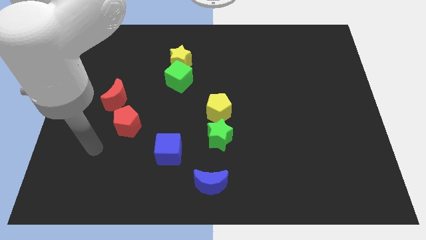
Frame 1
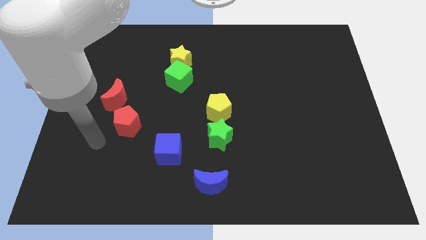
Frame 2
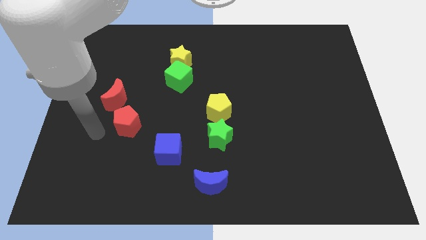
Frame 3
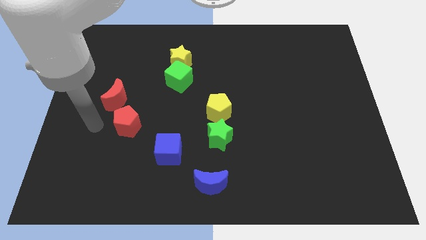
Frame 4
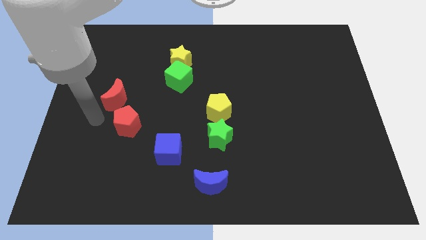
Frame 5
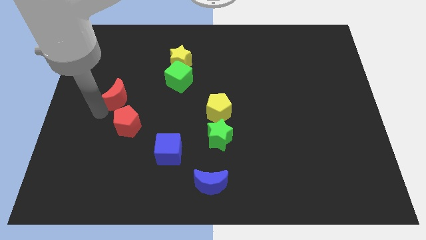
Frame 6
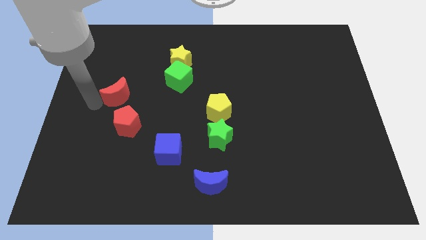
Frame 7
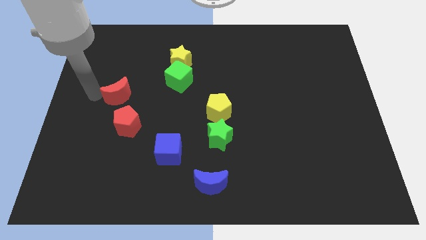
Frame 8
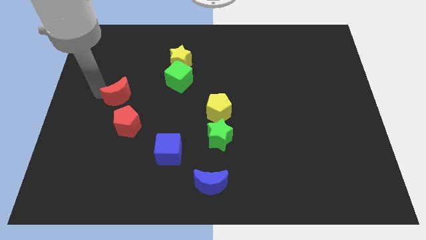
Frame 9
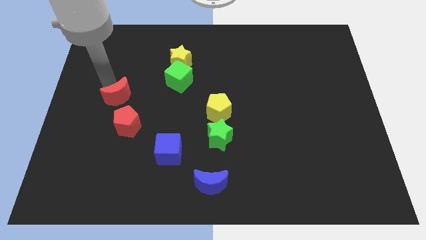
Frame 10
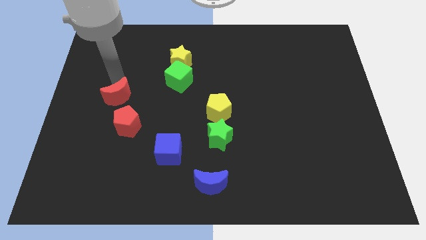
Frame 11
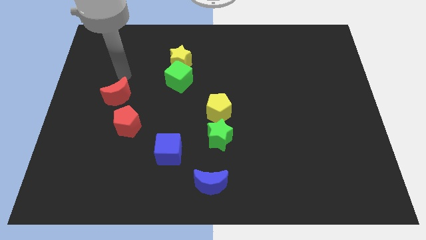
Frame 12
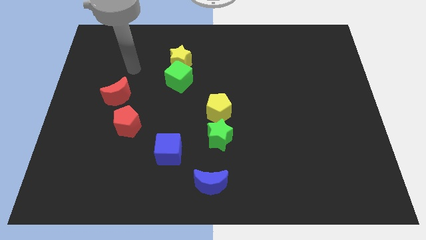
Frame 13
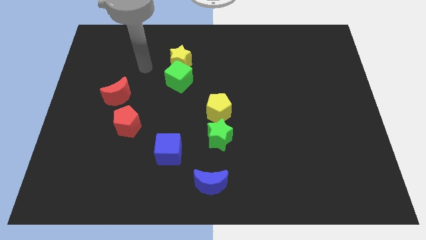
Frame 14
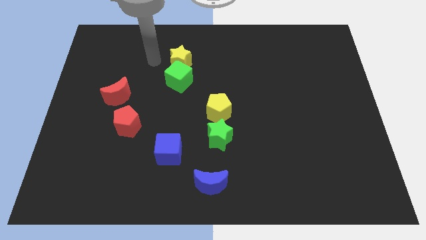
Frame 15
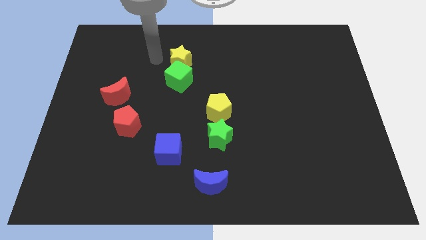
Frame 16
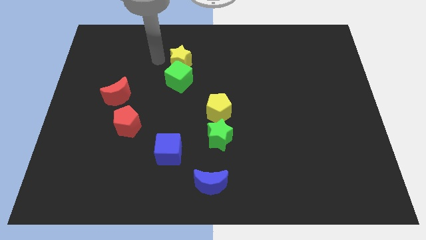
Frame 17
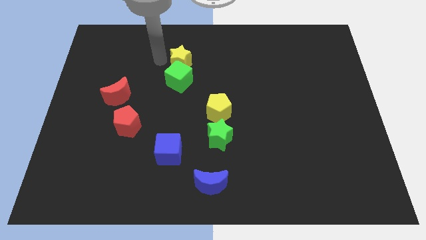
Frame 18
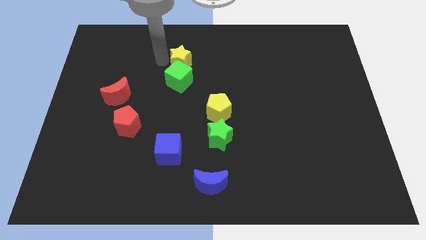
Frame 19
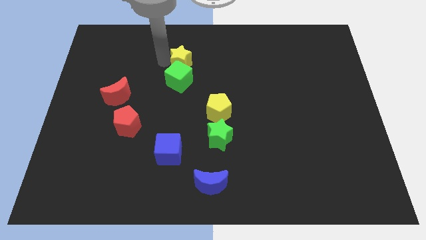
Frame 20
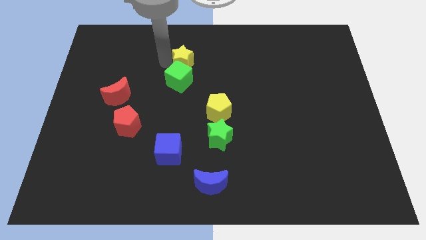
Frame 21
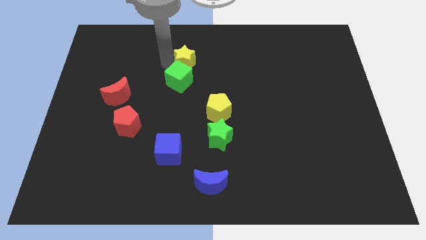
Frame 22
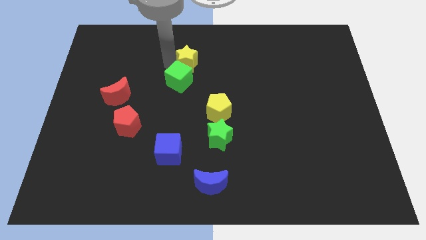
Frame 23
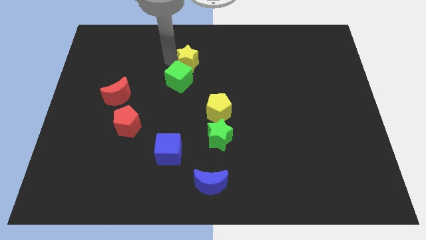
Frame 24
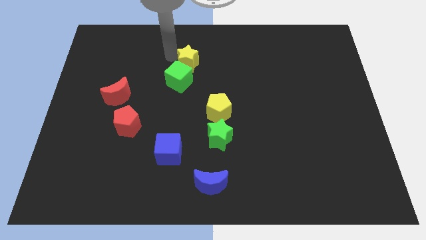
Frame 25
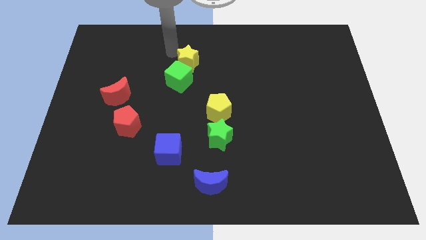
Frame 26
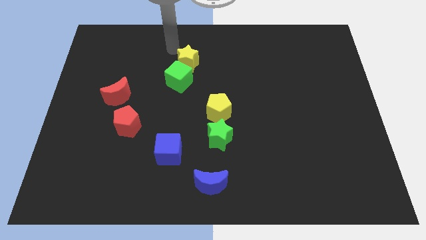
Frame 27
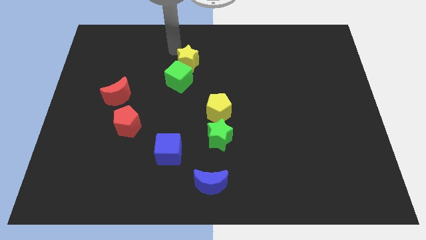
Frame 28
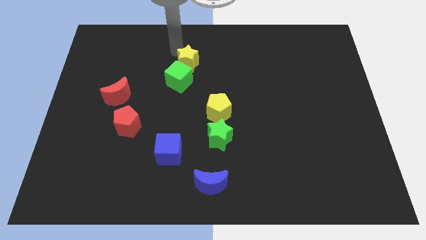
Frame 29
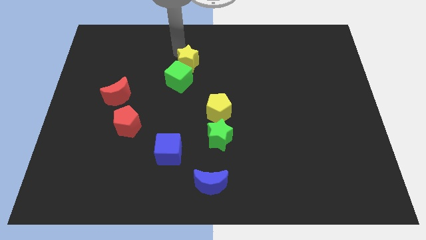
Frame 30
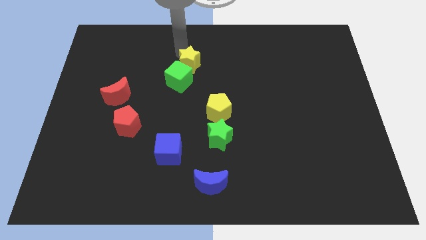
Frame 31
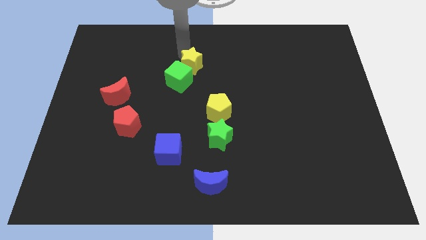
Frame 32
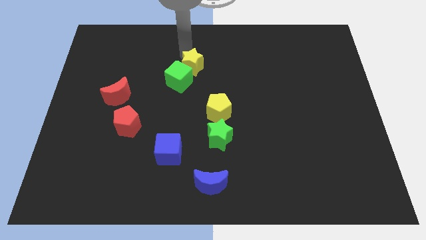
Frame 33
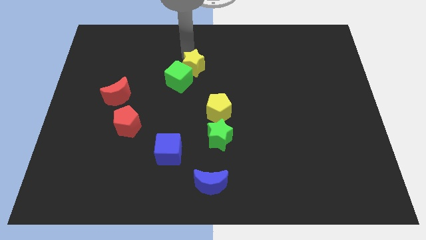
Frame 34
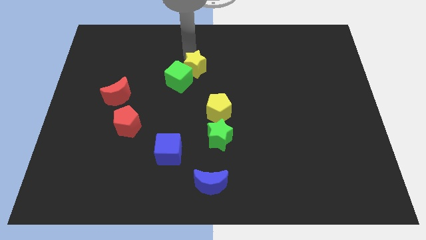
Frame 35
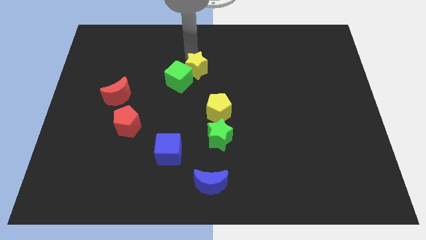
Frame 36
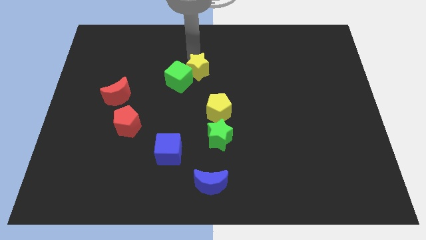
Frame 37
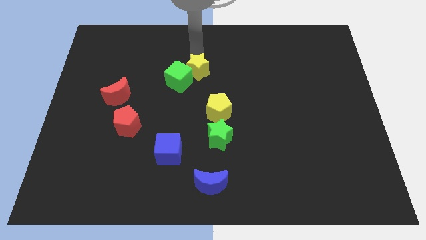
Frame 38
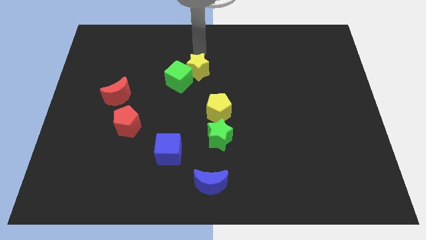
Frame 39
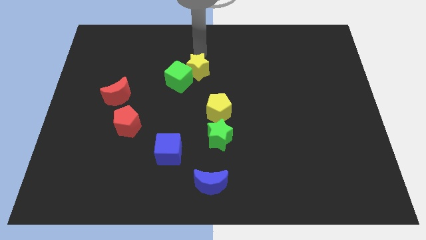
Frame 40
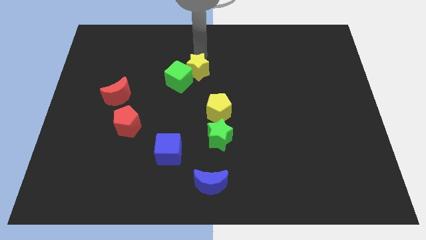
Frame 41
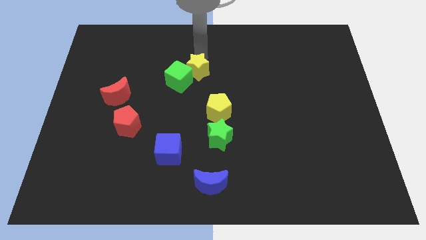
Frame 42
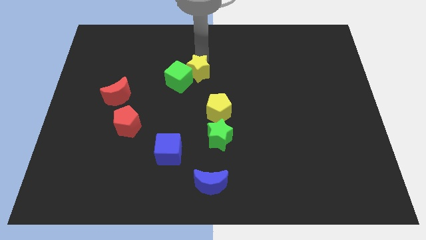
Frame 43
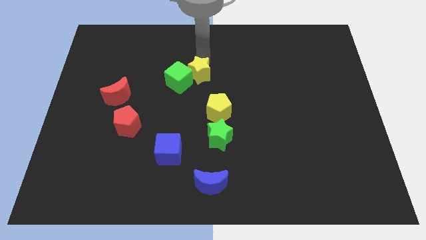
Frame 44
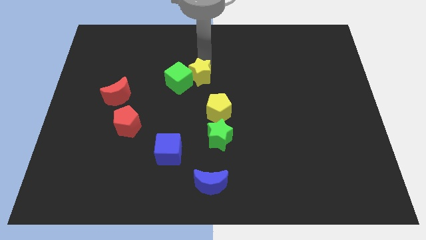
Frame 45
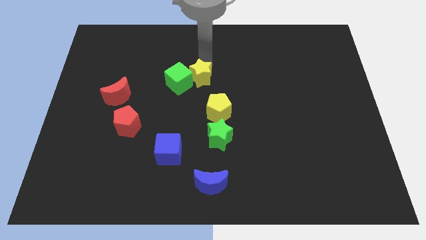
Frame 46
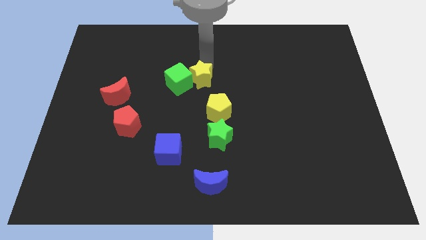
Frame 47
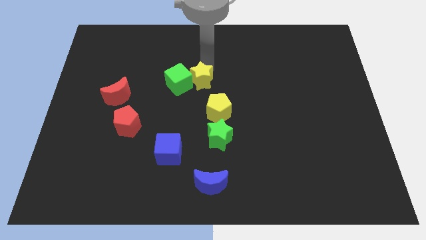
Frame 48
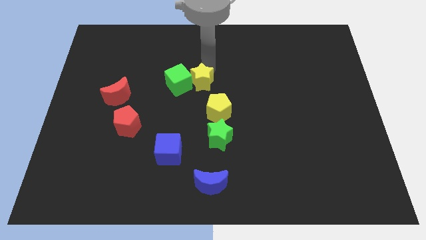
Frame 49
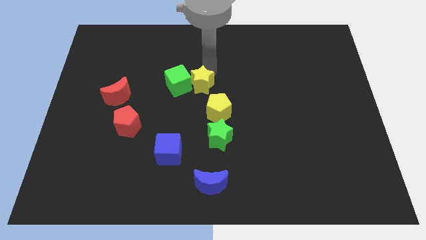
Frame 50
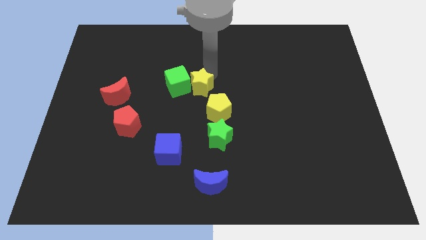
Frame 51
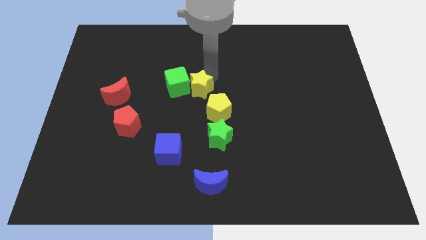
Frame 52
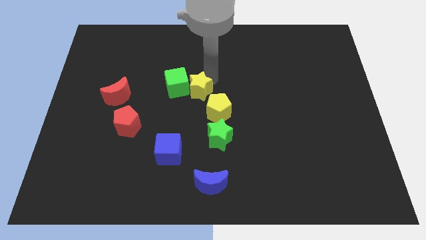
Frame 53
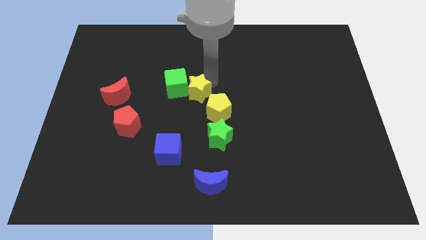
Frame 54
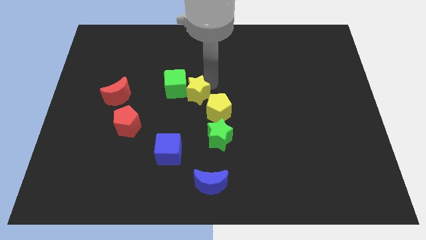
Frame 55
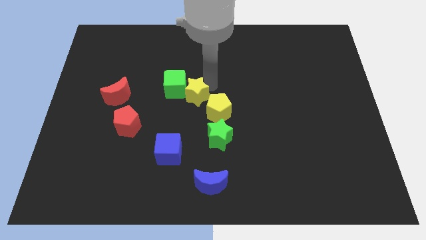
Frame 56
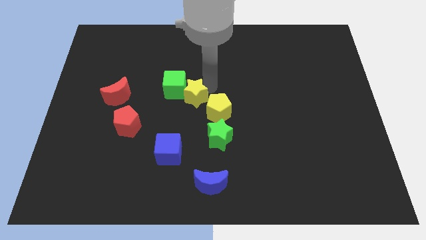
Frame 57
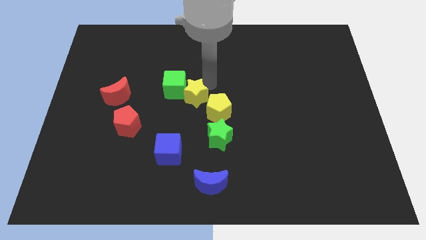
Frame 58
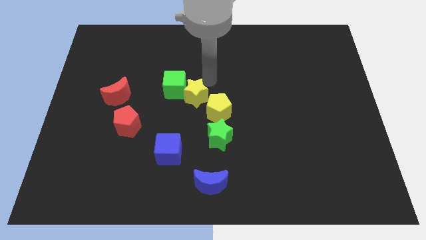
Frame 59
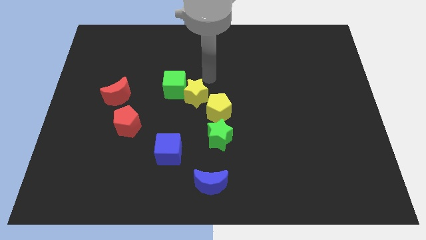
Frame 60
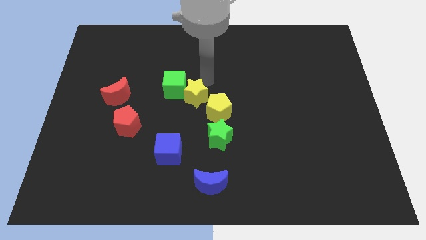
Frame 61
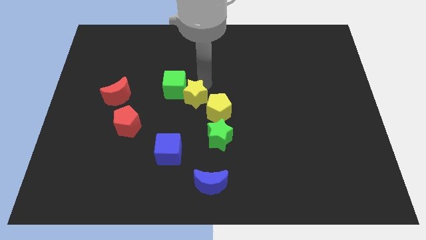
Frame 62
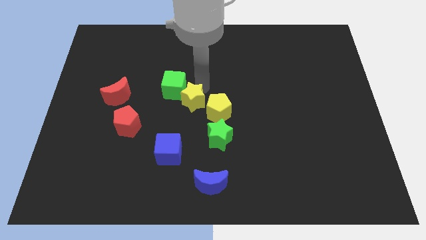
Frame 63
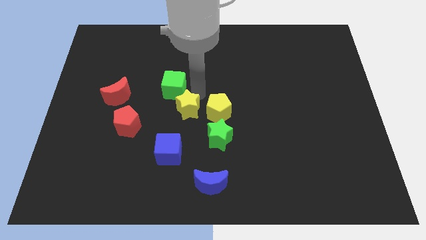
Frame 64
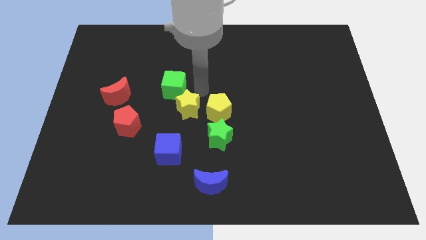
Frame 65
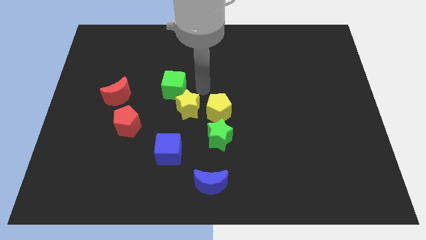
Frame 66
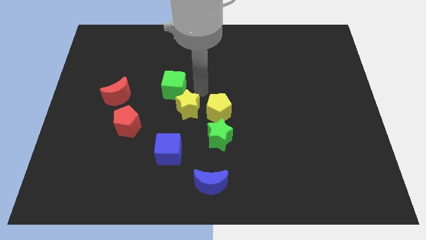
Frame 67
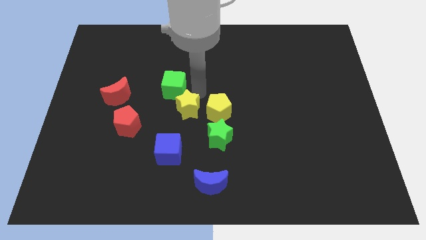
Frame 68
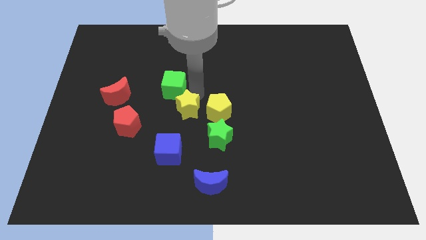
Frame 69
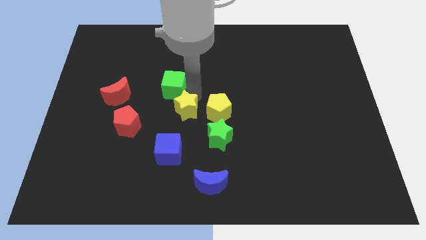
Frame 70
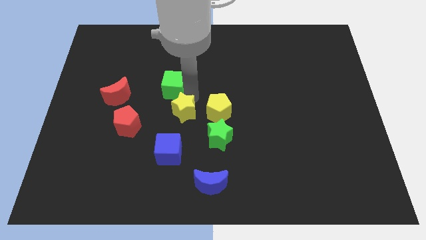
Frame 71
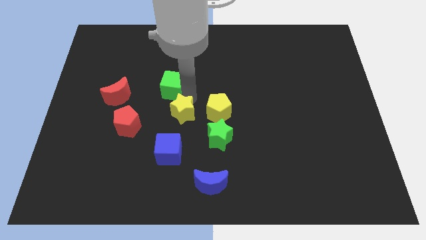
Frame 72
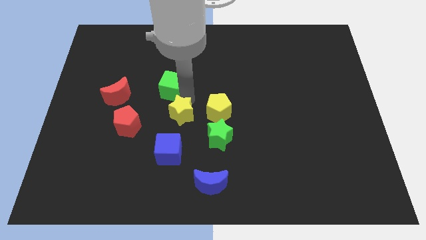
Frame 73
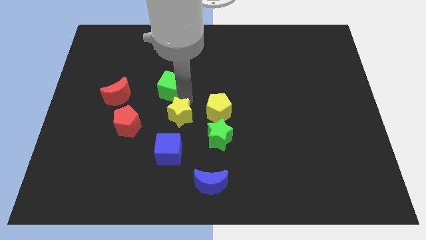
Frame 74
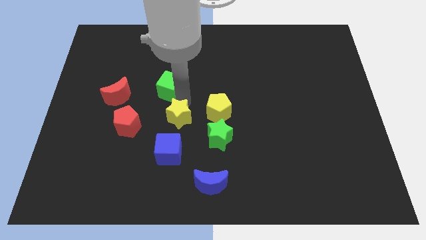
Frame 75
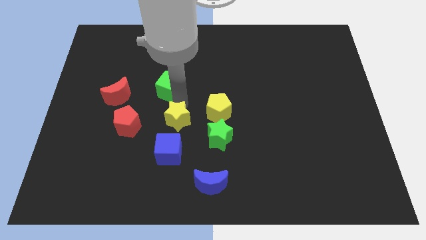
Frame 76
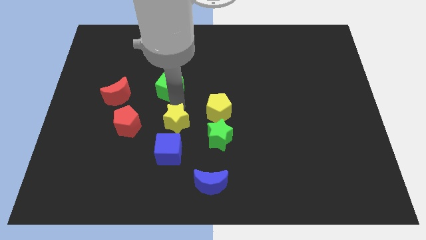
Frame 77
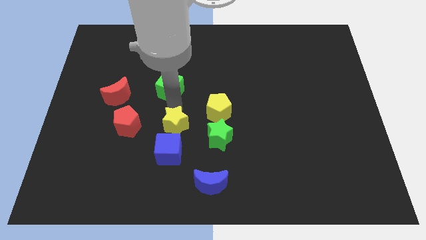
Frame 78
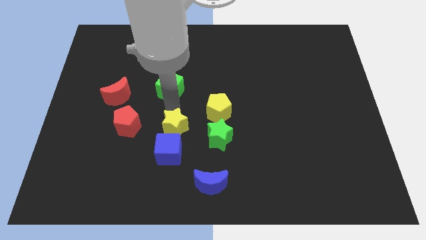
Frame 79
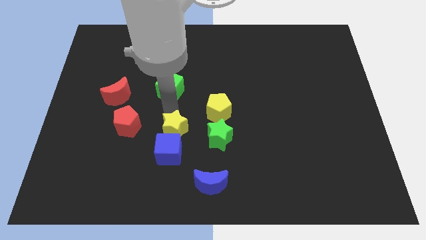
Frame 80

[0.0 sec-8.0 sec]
put the yellow star close to the blue cube

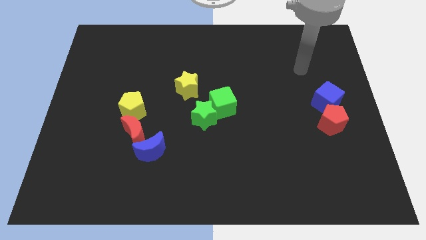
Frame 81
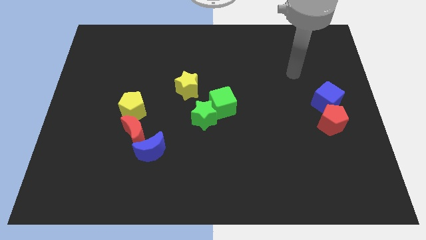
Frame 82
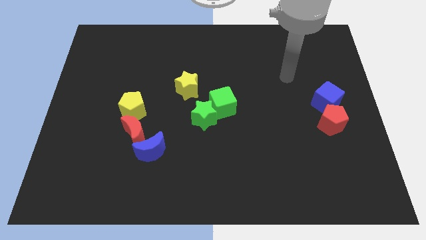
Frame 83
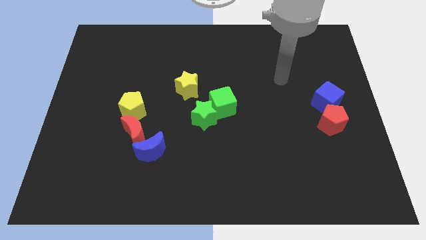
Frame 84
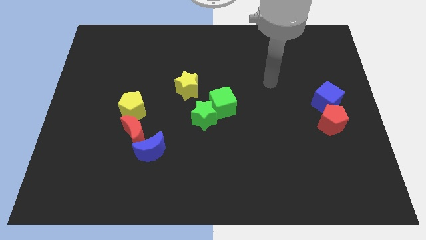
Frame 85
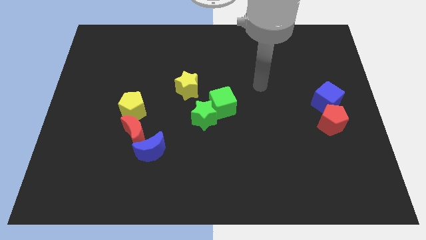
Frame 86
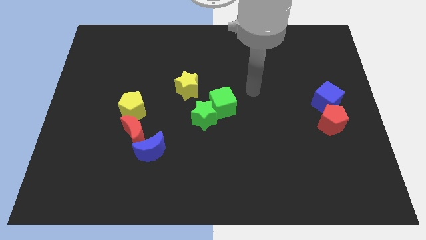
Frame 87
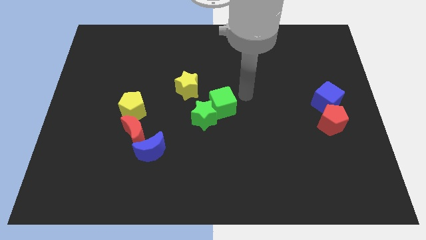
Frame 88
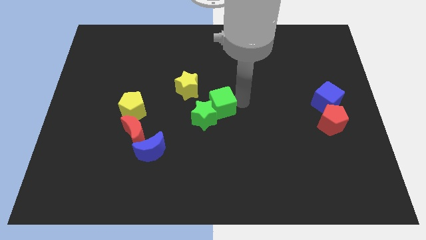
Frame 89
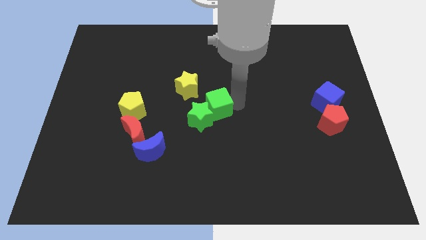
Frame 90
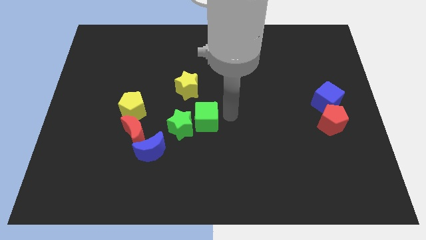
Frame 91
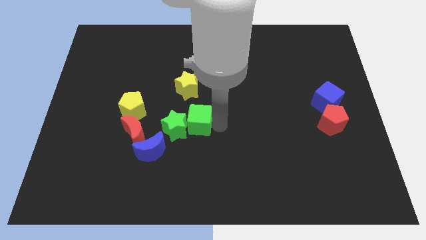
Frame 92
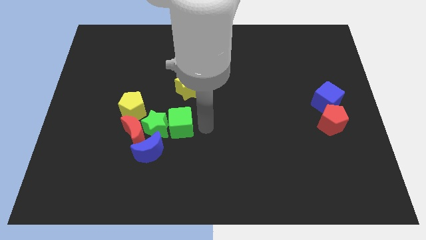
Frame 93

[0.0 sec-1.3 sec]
push the green star towards the red moon
